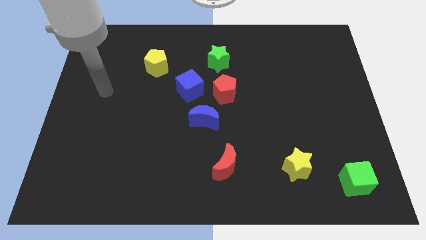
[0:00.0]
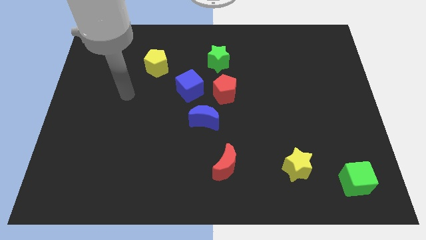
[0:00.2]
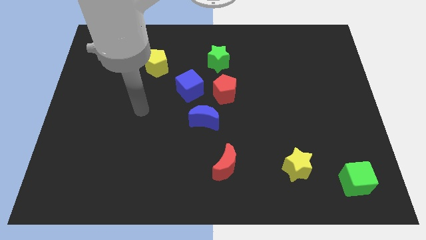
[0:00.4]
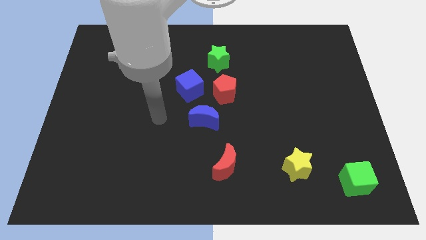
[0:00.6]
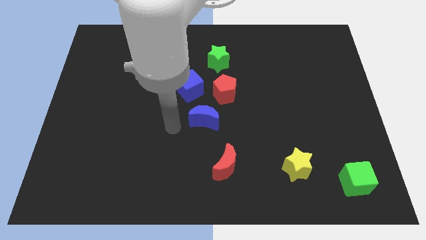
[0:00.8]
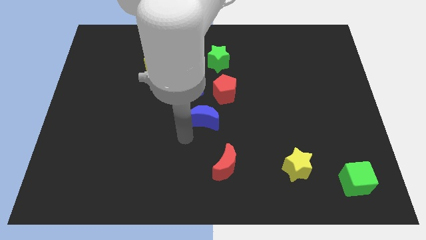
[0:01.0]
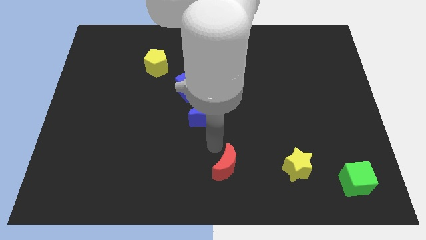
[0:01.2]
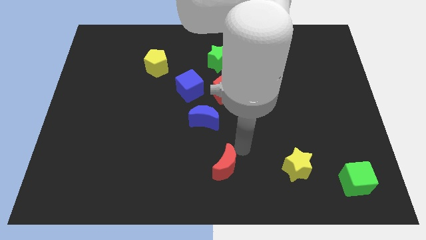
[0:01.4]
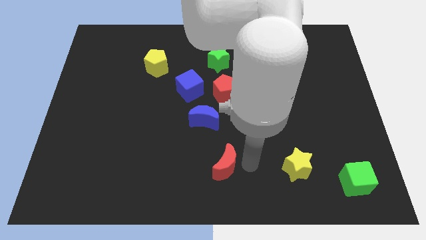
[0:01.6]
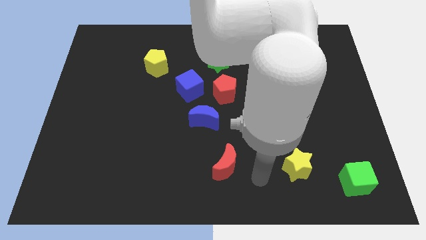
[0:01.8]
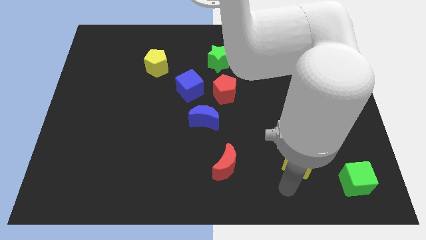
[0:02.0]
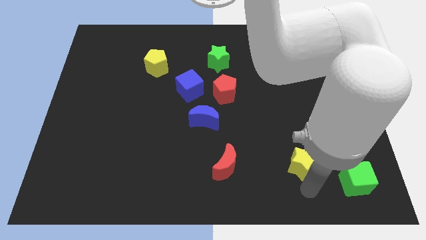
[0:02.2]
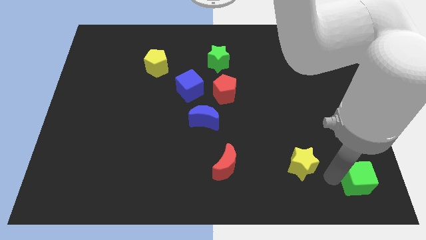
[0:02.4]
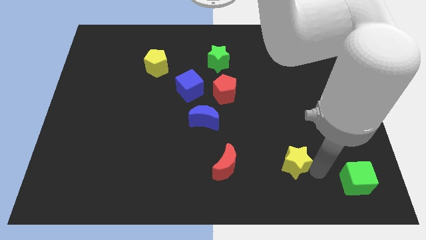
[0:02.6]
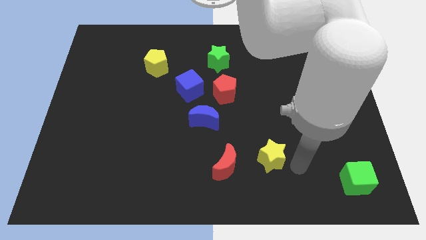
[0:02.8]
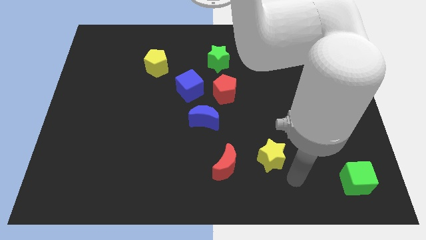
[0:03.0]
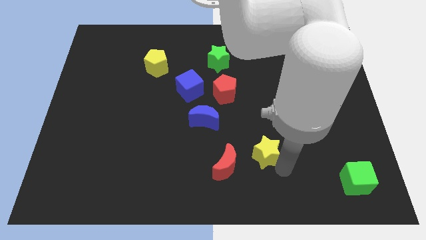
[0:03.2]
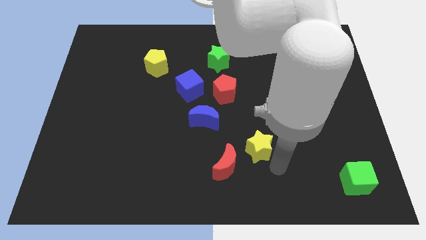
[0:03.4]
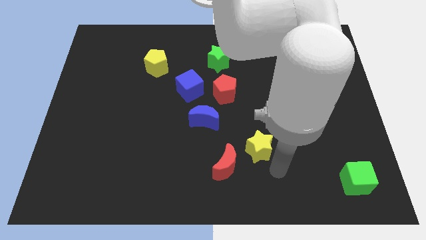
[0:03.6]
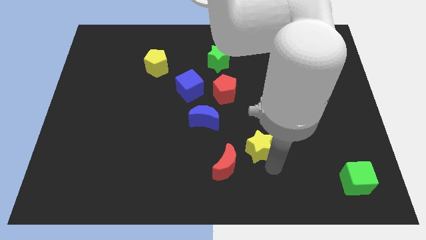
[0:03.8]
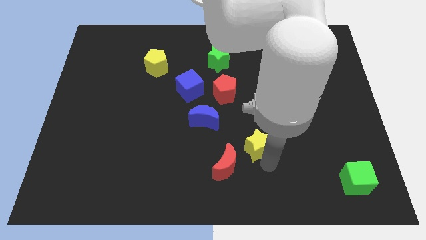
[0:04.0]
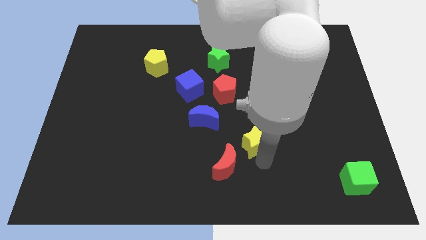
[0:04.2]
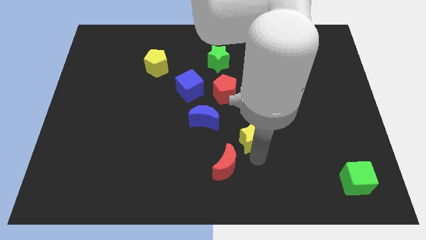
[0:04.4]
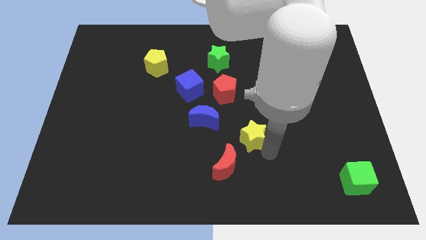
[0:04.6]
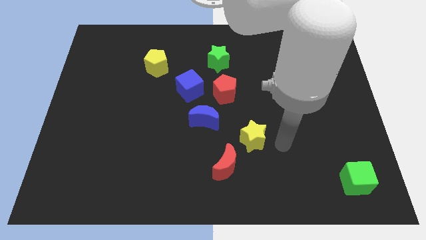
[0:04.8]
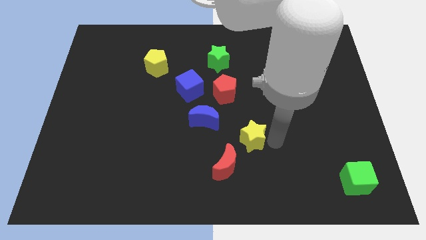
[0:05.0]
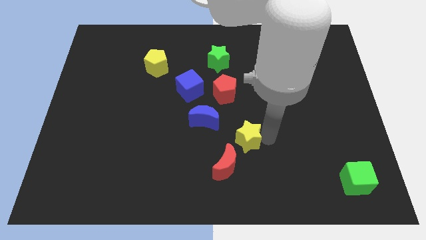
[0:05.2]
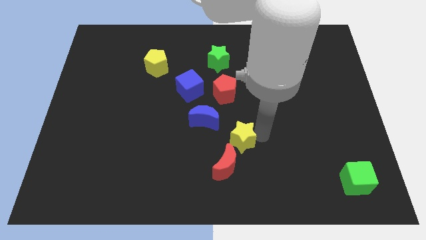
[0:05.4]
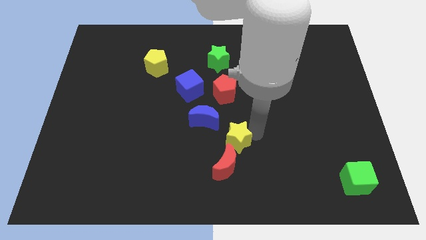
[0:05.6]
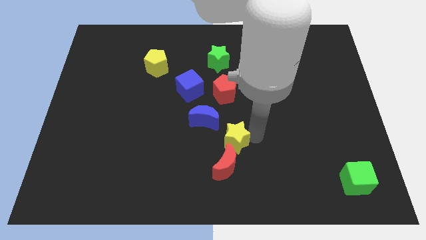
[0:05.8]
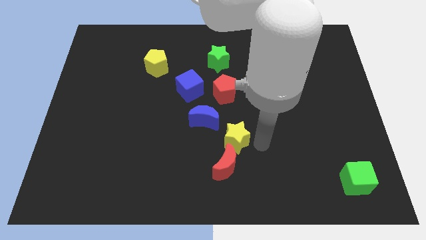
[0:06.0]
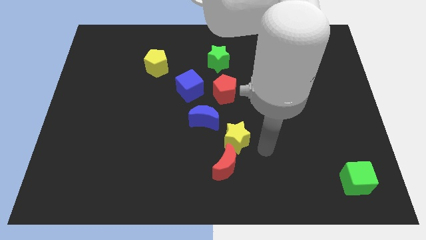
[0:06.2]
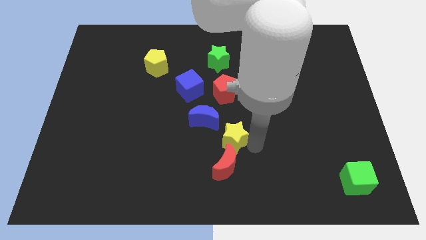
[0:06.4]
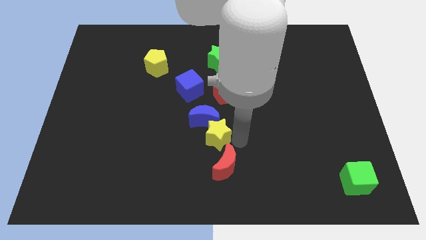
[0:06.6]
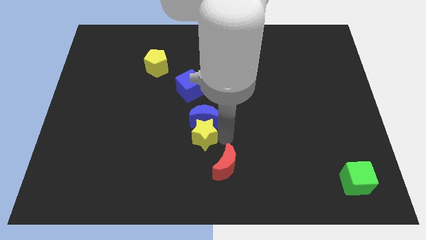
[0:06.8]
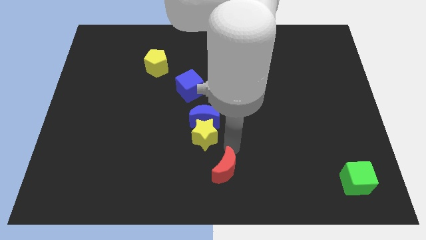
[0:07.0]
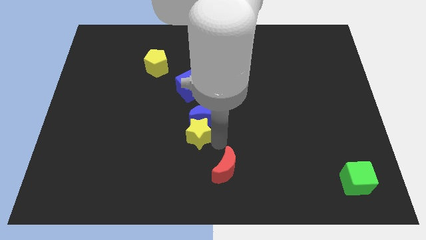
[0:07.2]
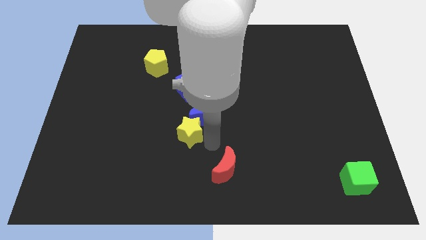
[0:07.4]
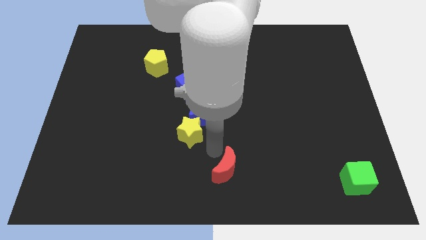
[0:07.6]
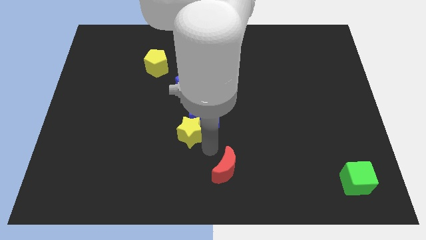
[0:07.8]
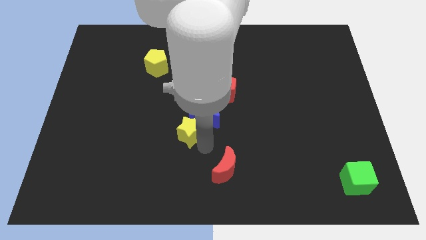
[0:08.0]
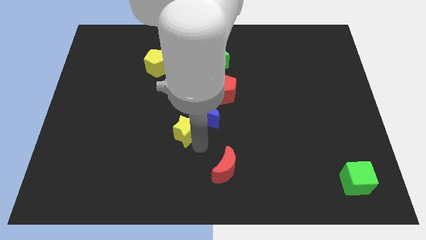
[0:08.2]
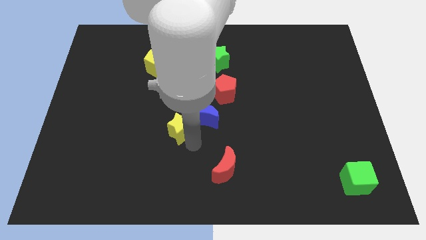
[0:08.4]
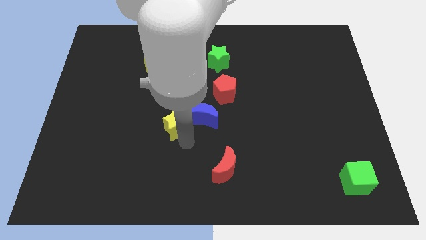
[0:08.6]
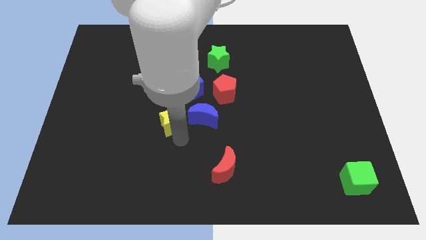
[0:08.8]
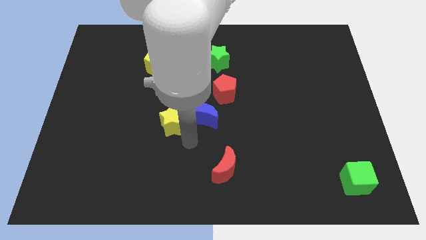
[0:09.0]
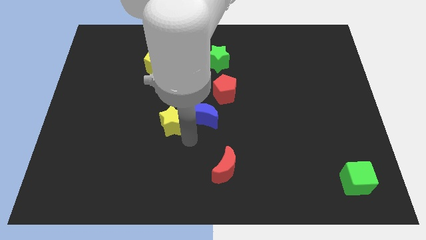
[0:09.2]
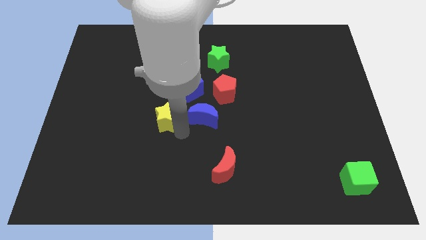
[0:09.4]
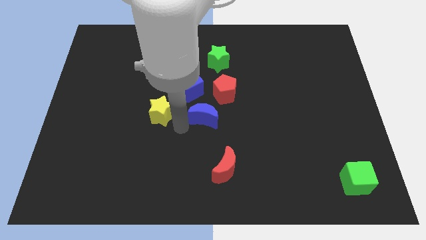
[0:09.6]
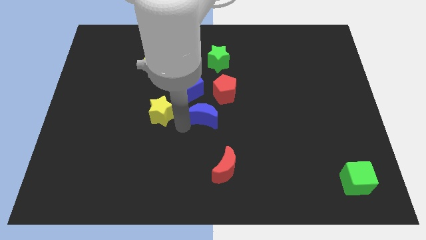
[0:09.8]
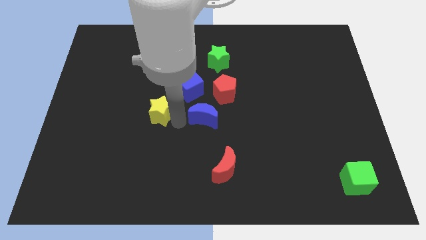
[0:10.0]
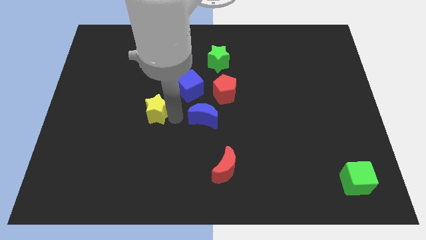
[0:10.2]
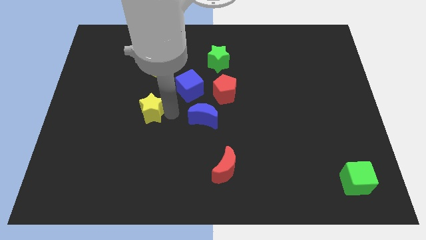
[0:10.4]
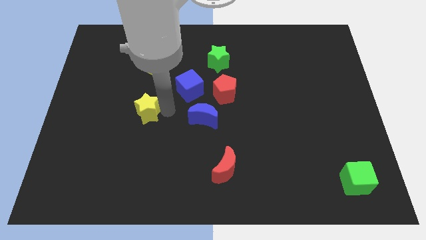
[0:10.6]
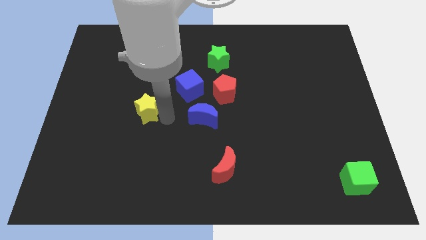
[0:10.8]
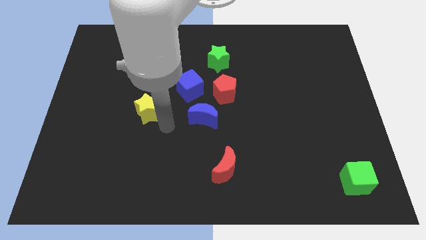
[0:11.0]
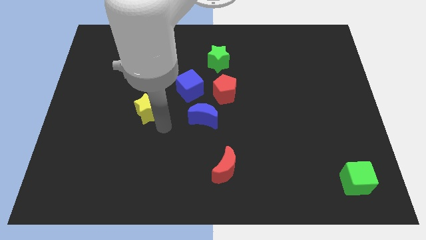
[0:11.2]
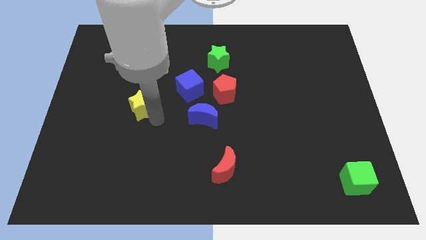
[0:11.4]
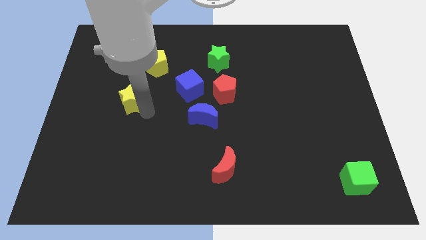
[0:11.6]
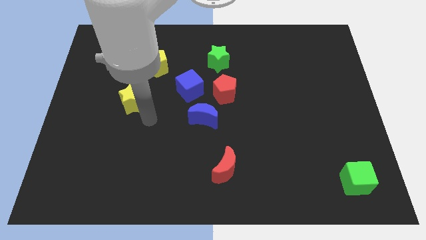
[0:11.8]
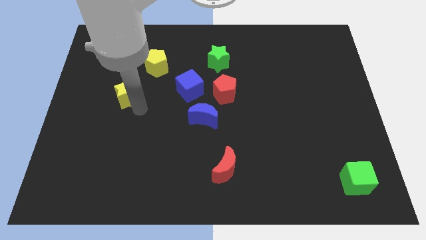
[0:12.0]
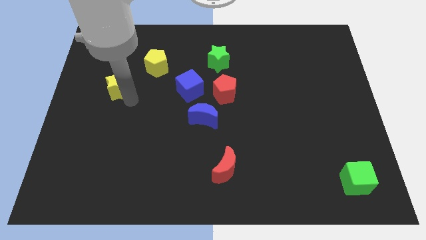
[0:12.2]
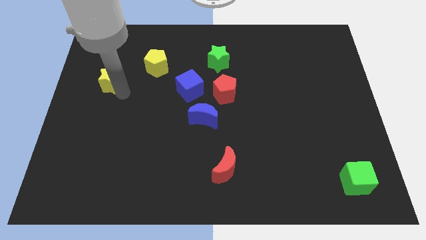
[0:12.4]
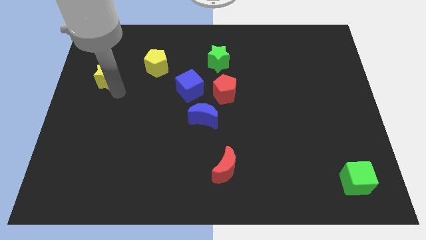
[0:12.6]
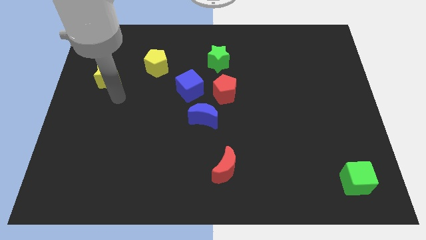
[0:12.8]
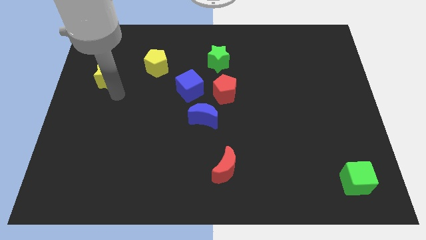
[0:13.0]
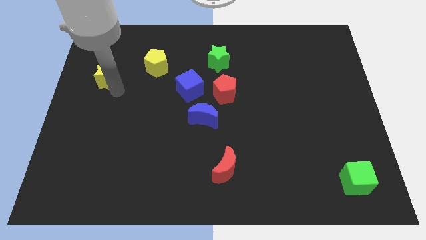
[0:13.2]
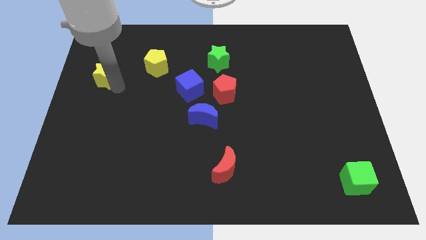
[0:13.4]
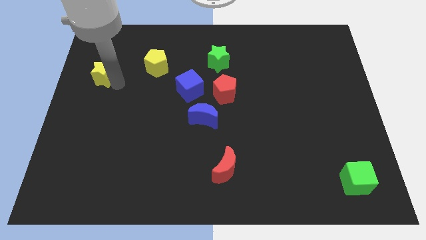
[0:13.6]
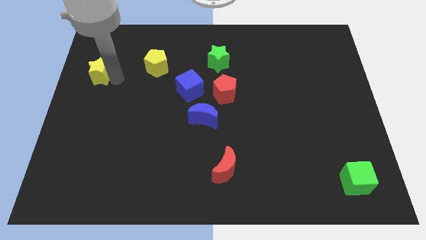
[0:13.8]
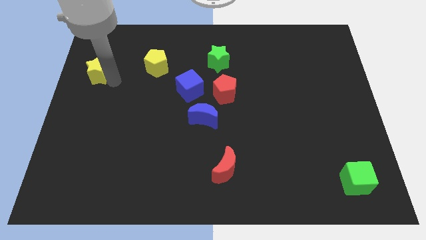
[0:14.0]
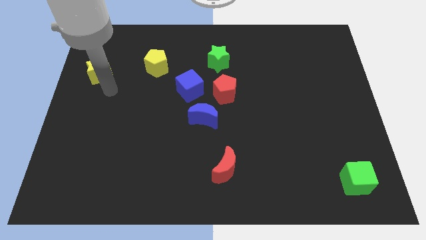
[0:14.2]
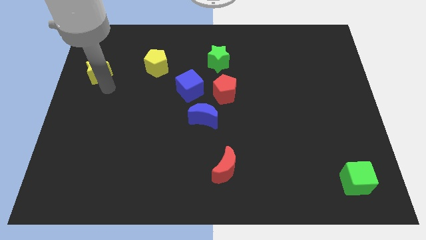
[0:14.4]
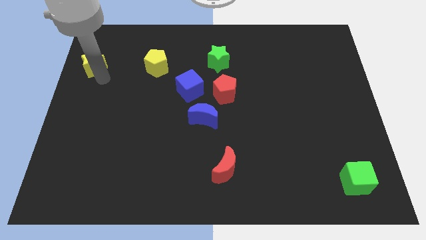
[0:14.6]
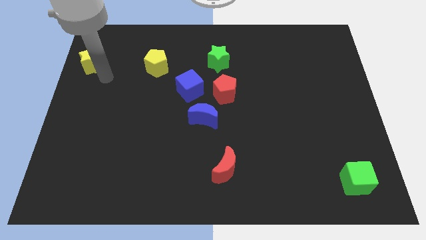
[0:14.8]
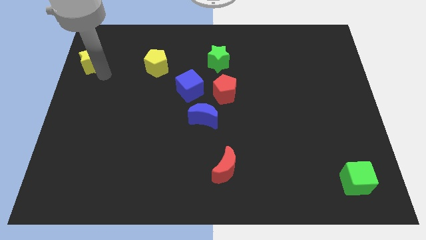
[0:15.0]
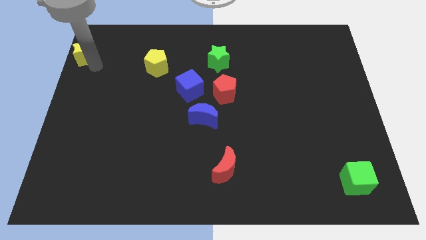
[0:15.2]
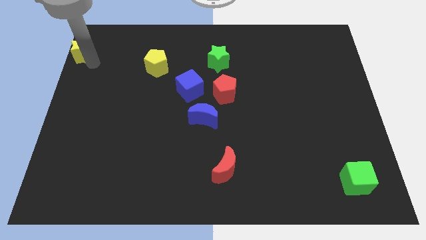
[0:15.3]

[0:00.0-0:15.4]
move the yellow star to the top left
